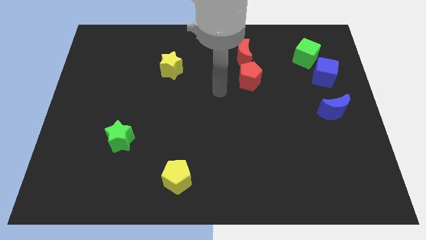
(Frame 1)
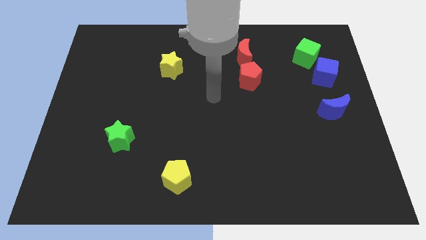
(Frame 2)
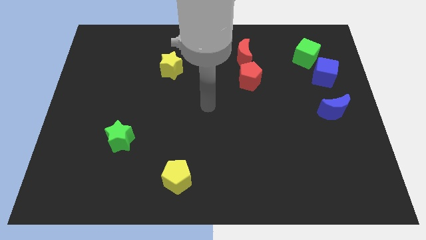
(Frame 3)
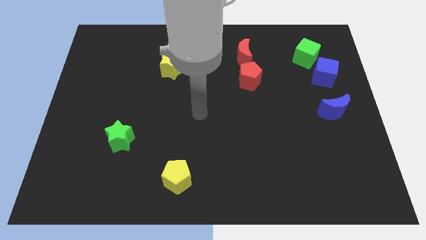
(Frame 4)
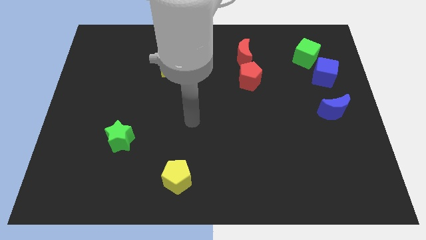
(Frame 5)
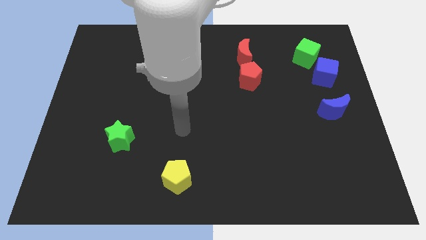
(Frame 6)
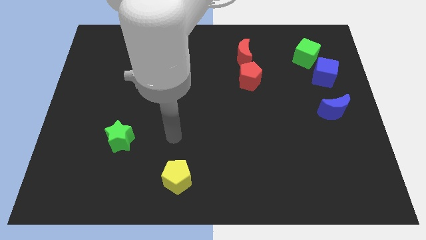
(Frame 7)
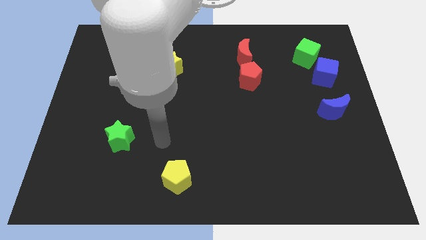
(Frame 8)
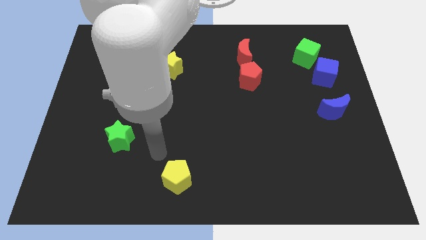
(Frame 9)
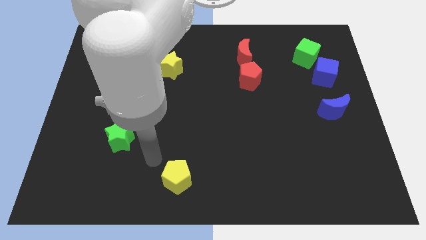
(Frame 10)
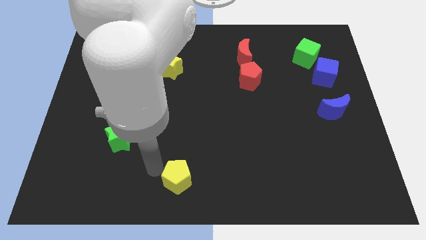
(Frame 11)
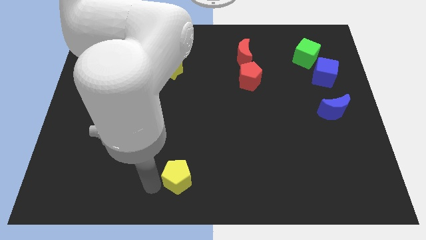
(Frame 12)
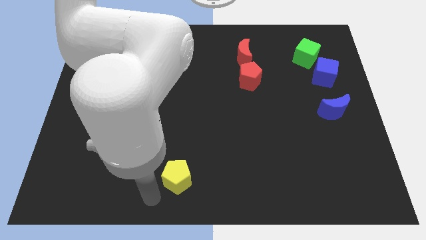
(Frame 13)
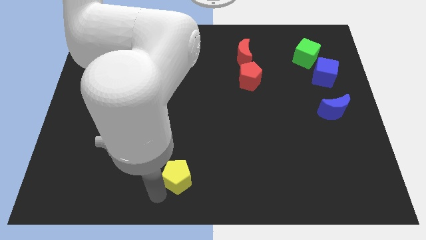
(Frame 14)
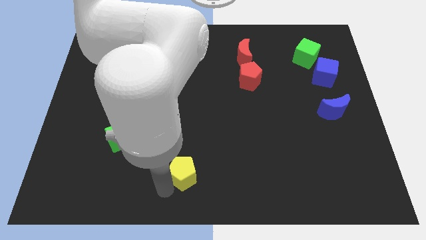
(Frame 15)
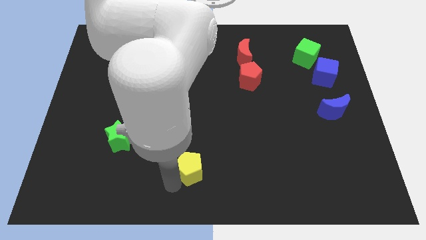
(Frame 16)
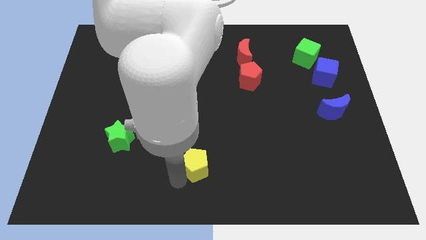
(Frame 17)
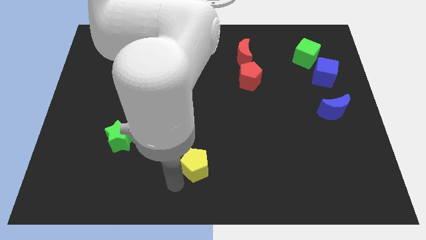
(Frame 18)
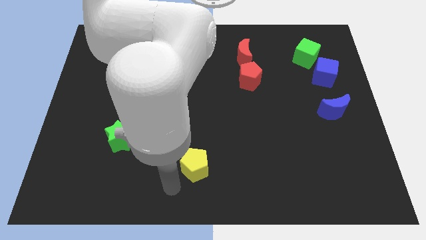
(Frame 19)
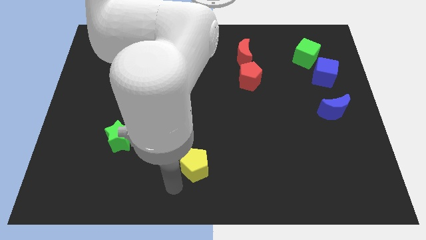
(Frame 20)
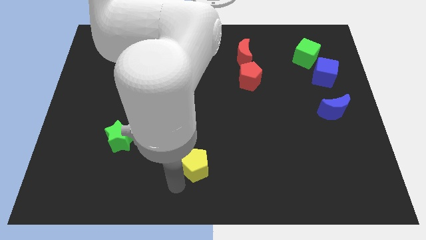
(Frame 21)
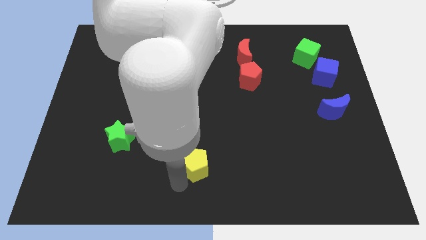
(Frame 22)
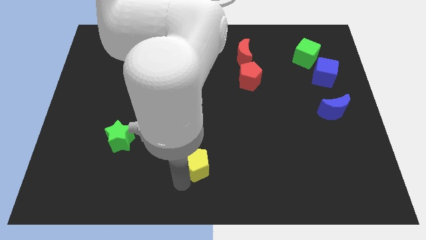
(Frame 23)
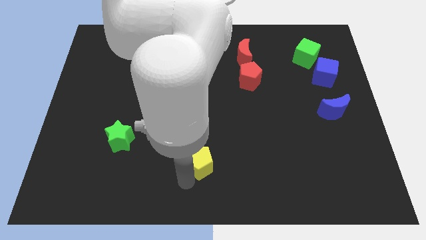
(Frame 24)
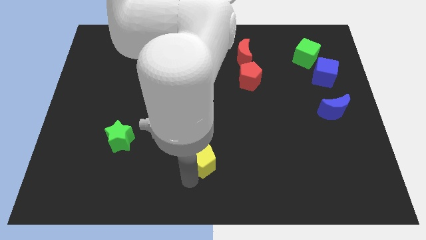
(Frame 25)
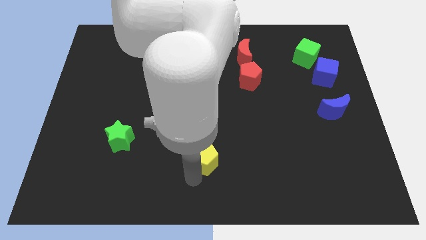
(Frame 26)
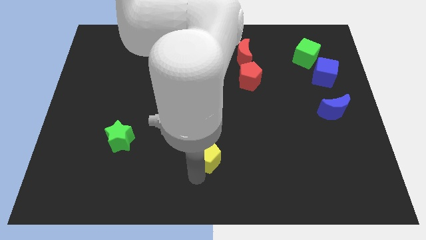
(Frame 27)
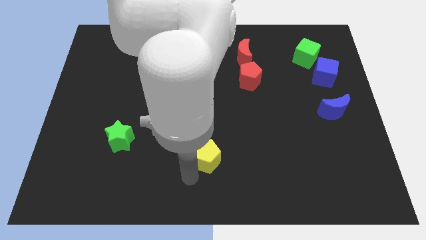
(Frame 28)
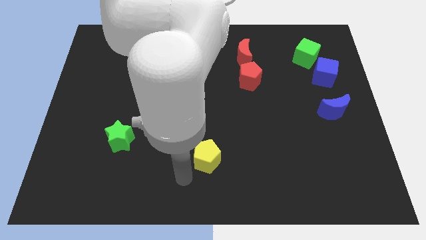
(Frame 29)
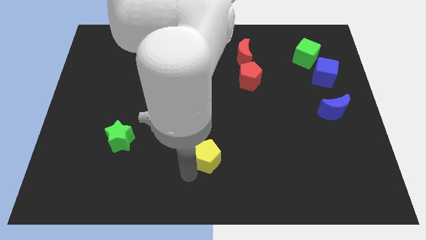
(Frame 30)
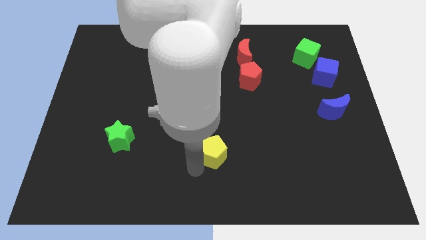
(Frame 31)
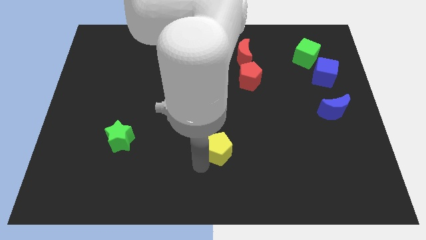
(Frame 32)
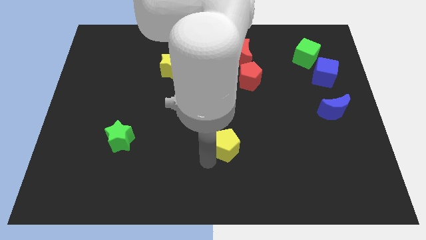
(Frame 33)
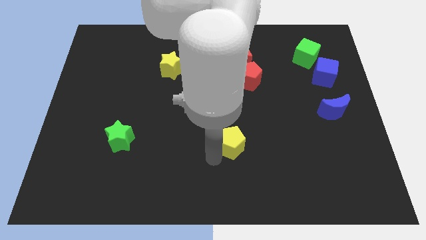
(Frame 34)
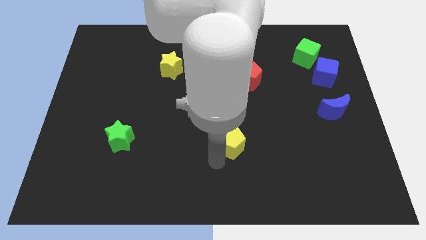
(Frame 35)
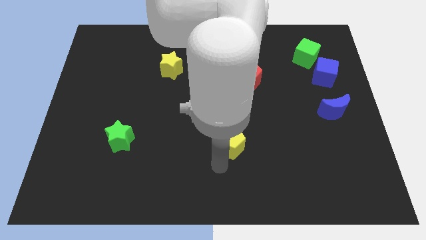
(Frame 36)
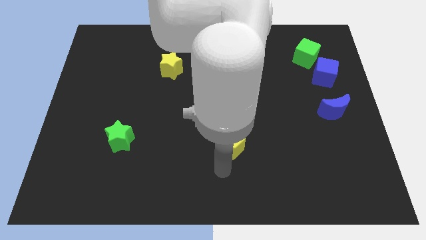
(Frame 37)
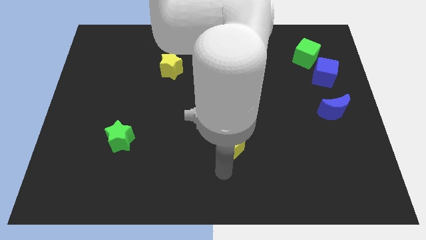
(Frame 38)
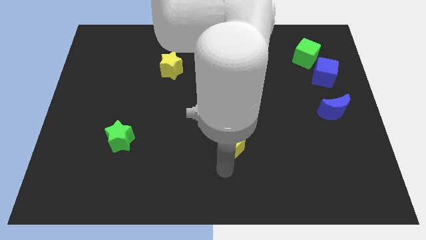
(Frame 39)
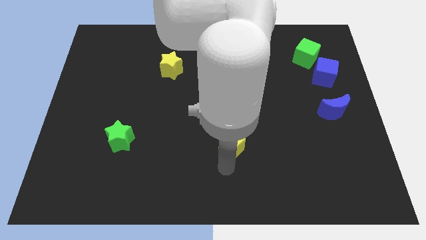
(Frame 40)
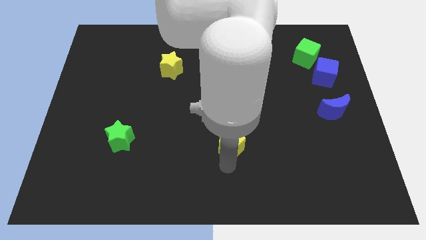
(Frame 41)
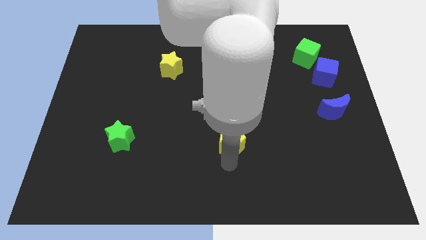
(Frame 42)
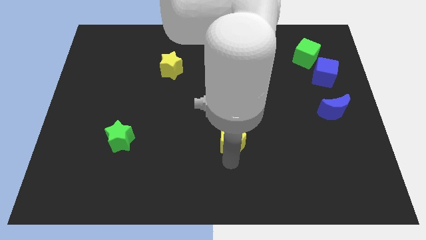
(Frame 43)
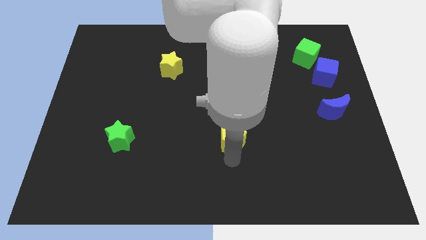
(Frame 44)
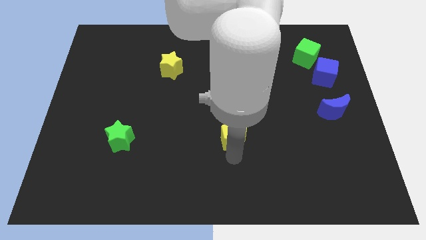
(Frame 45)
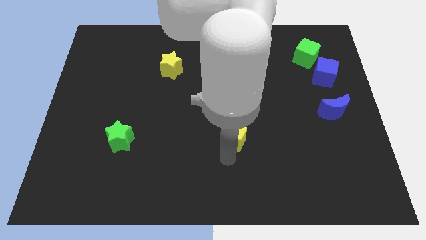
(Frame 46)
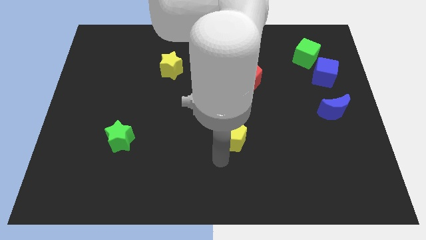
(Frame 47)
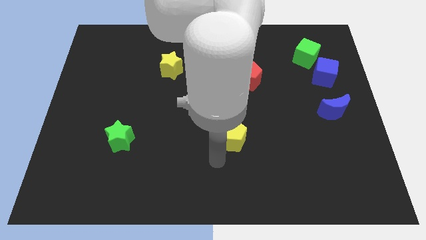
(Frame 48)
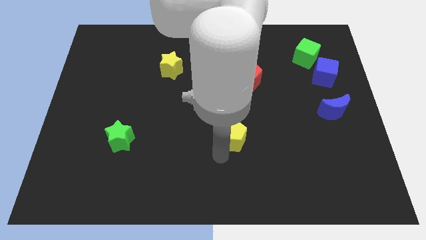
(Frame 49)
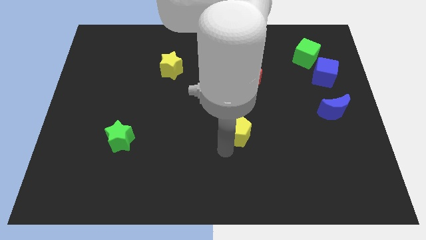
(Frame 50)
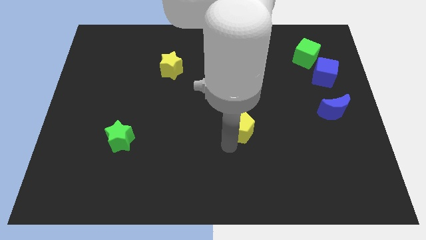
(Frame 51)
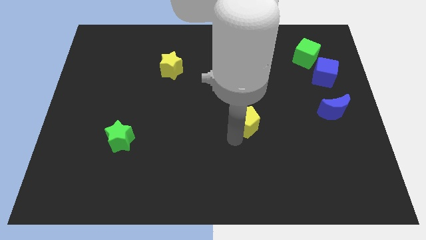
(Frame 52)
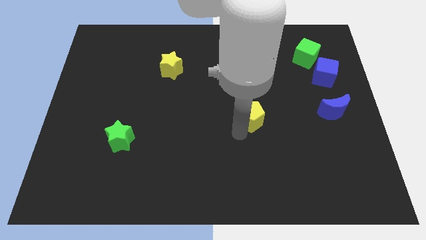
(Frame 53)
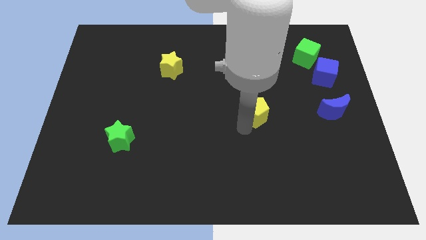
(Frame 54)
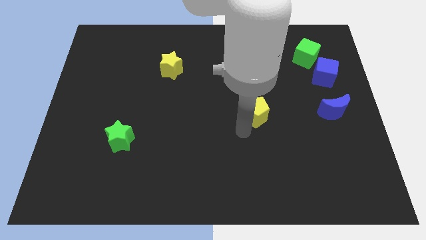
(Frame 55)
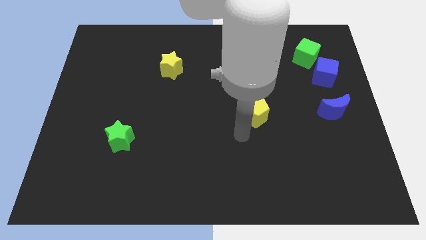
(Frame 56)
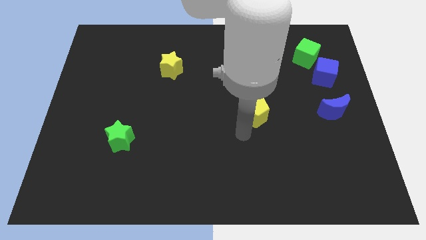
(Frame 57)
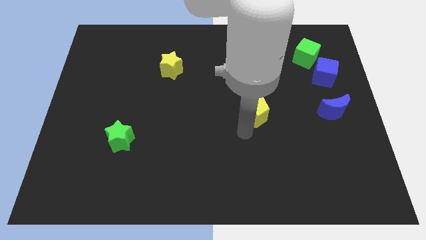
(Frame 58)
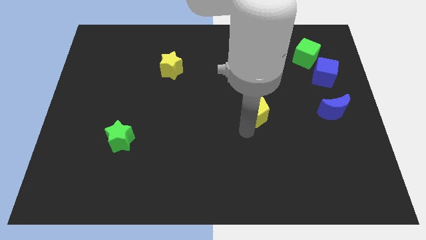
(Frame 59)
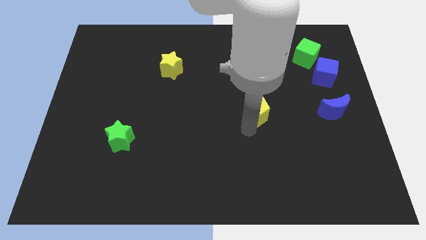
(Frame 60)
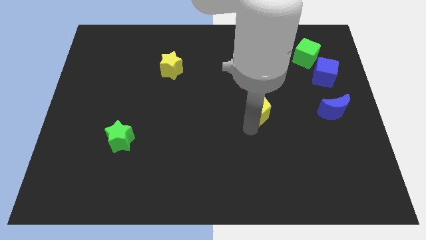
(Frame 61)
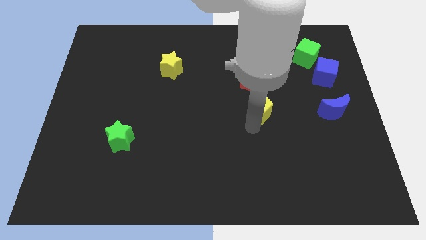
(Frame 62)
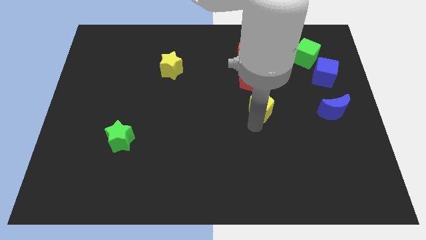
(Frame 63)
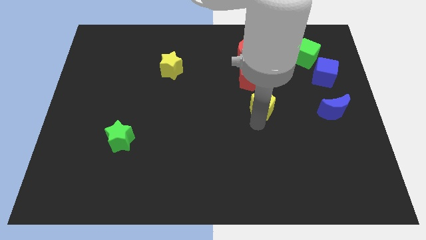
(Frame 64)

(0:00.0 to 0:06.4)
slide the yellow pentagon diagonally down and to the right of the red pentagon

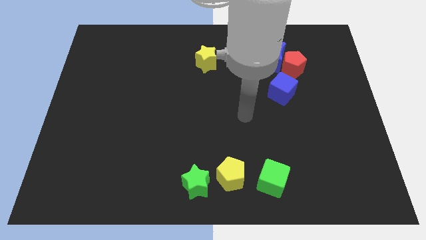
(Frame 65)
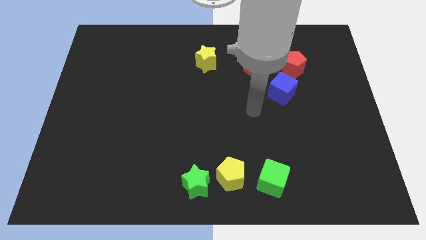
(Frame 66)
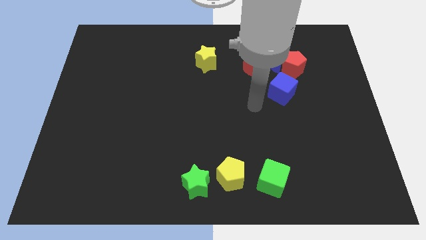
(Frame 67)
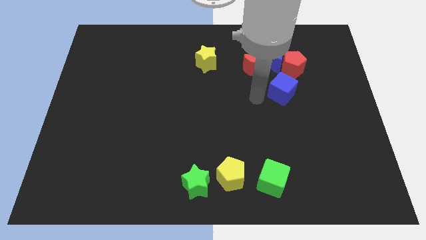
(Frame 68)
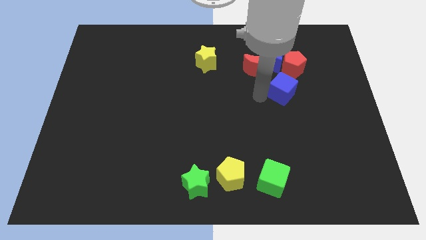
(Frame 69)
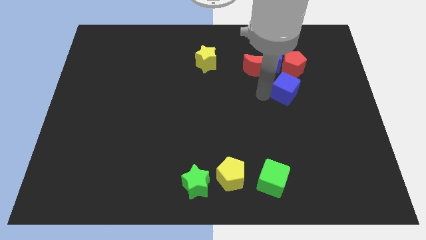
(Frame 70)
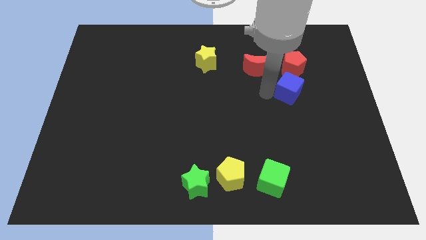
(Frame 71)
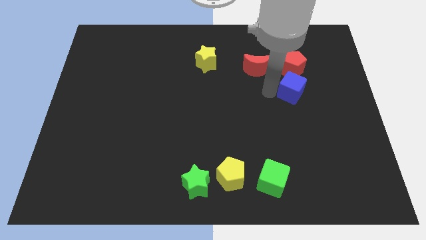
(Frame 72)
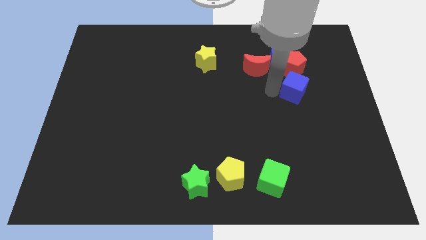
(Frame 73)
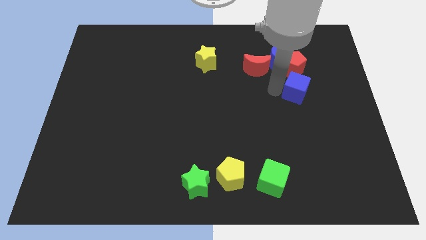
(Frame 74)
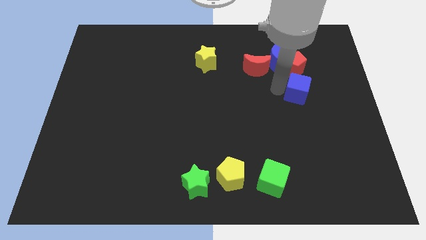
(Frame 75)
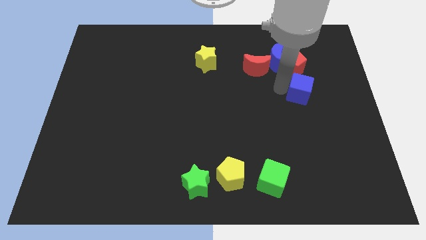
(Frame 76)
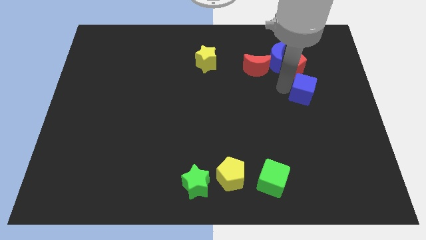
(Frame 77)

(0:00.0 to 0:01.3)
push the blue cube to the bottom right of the red pentagon
